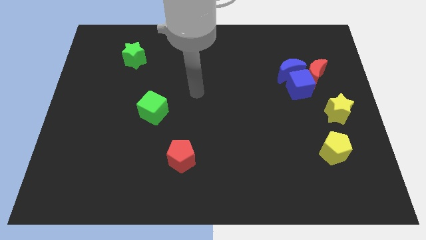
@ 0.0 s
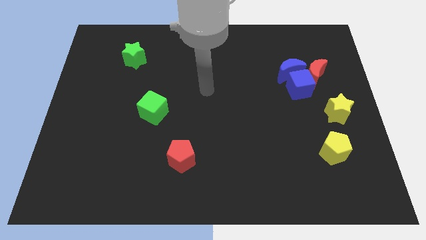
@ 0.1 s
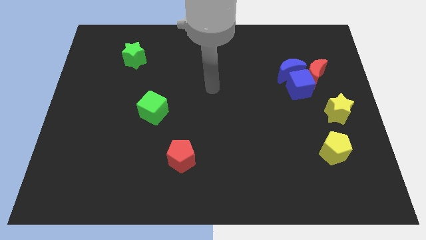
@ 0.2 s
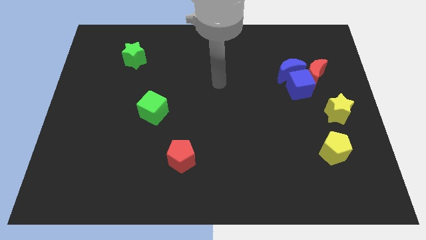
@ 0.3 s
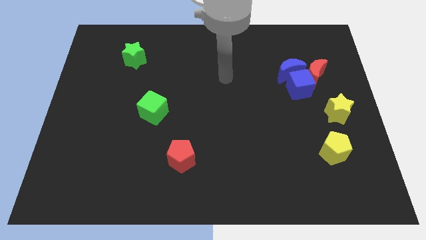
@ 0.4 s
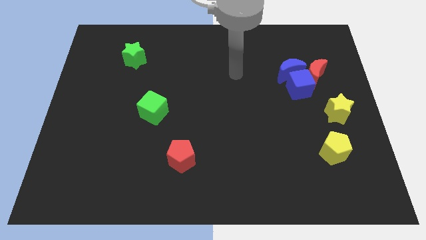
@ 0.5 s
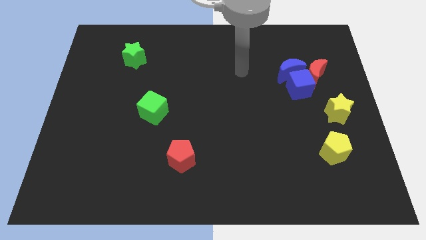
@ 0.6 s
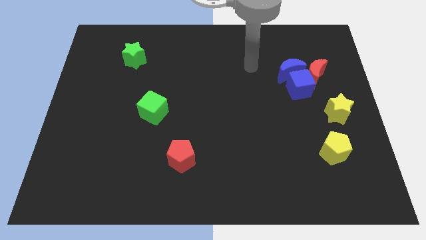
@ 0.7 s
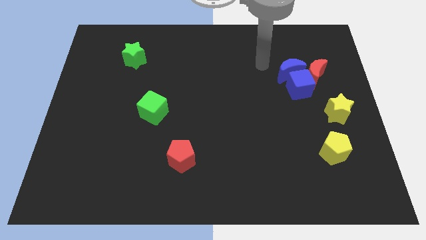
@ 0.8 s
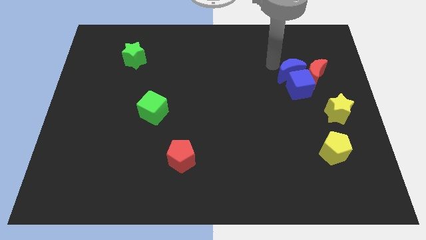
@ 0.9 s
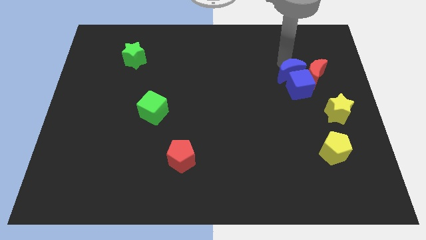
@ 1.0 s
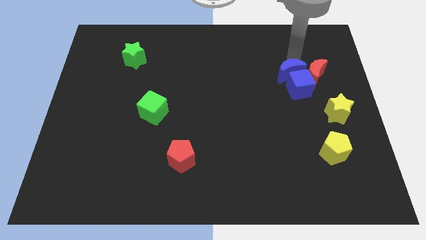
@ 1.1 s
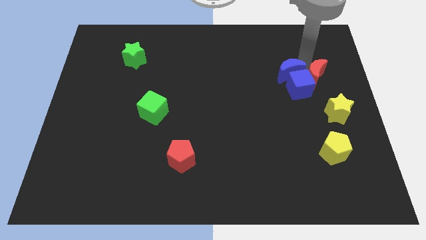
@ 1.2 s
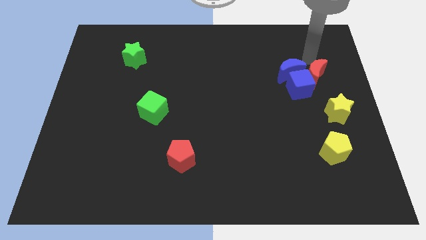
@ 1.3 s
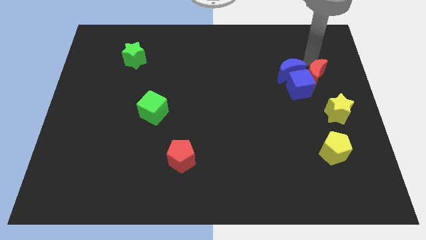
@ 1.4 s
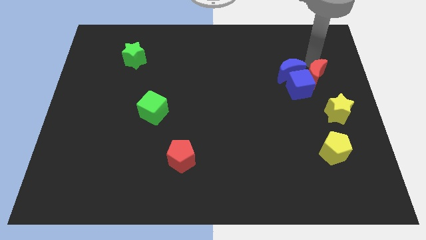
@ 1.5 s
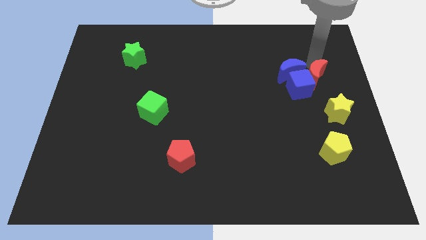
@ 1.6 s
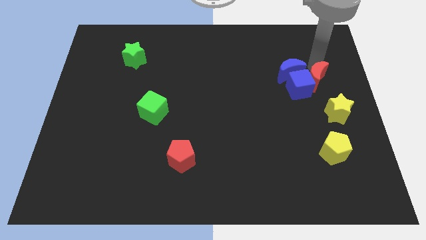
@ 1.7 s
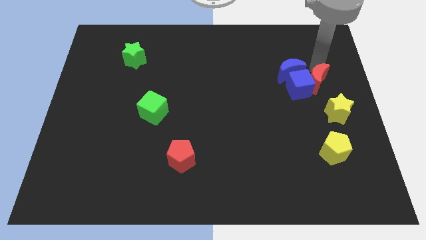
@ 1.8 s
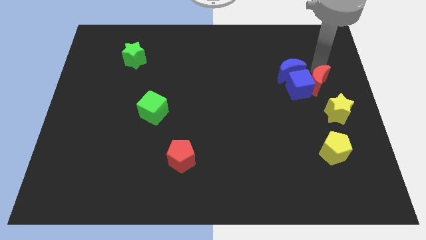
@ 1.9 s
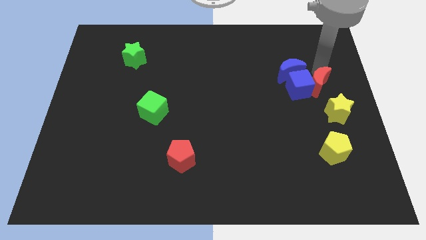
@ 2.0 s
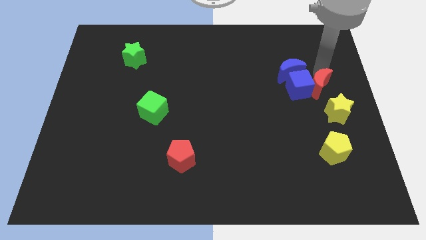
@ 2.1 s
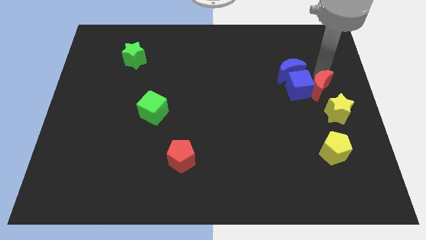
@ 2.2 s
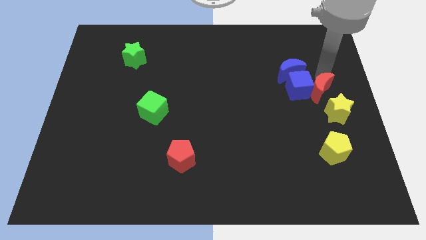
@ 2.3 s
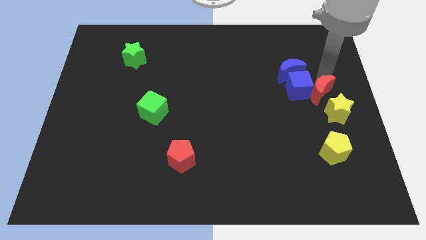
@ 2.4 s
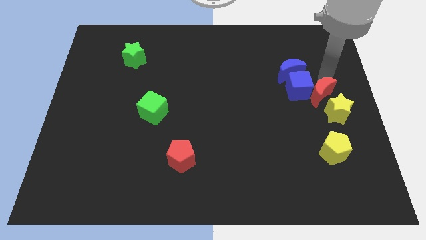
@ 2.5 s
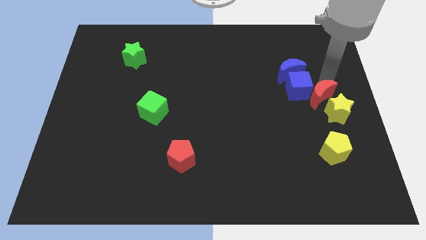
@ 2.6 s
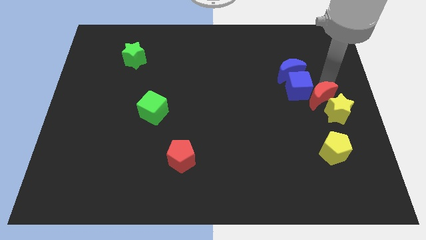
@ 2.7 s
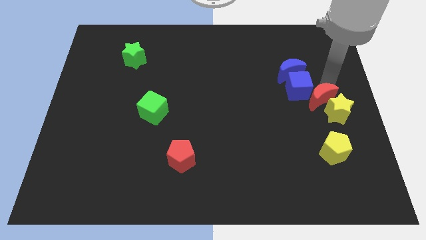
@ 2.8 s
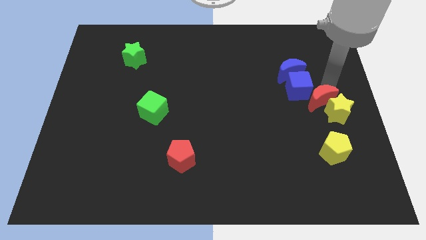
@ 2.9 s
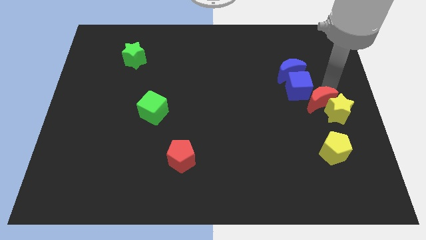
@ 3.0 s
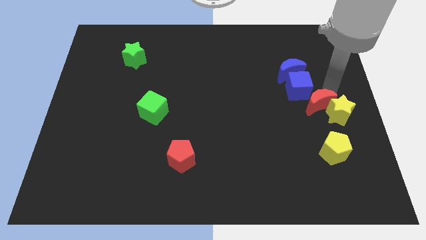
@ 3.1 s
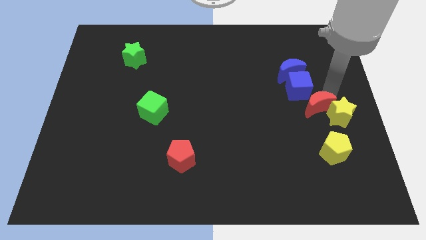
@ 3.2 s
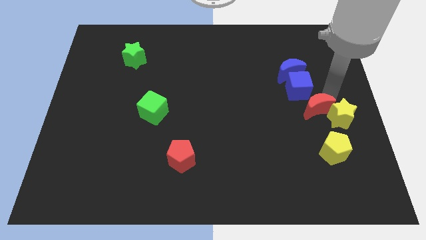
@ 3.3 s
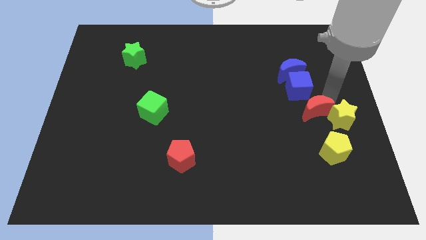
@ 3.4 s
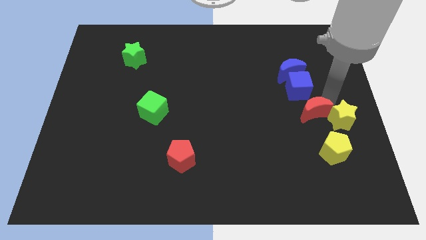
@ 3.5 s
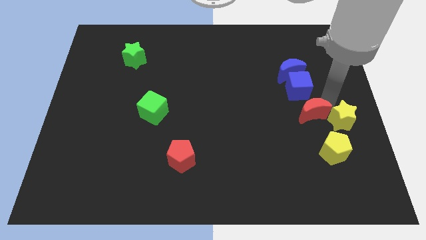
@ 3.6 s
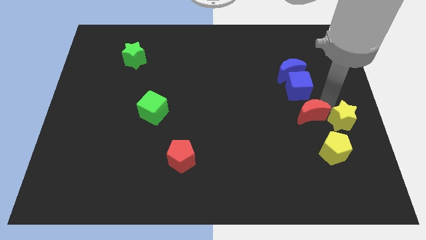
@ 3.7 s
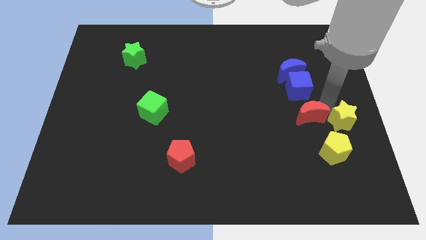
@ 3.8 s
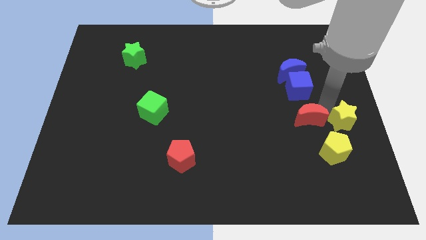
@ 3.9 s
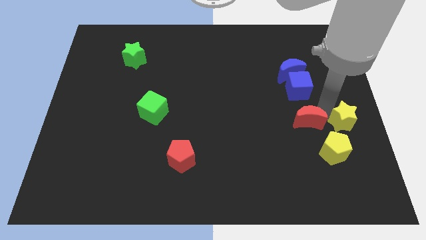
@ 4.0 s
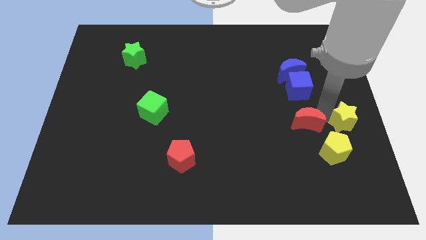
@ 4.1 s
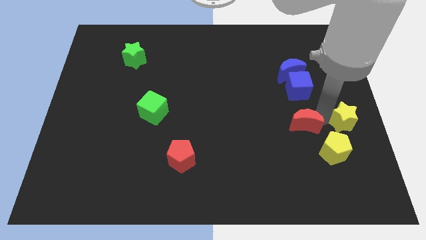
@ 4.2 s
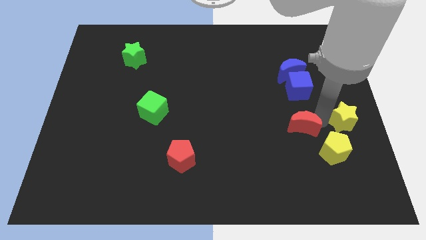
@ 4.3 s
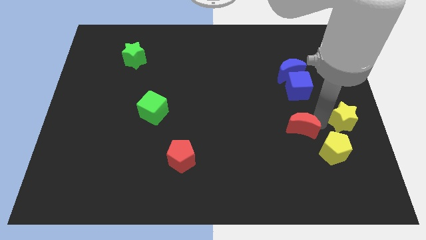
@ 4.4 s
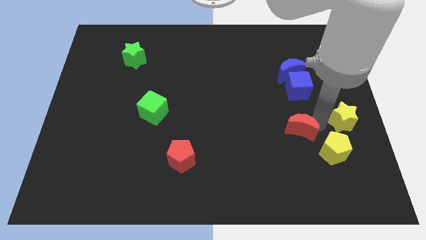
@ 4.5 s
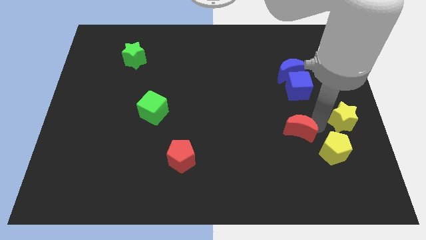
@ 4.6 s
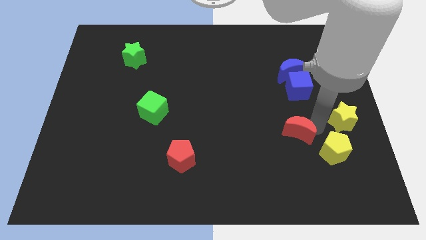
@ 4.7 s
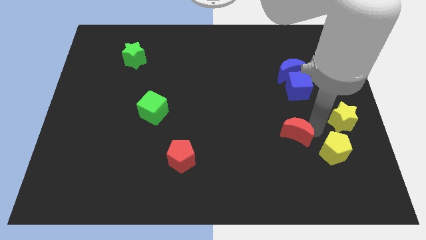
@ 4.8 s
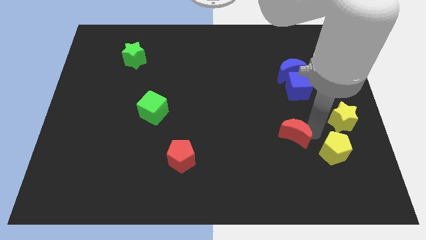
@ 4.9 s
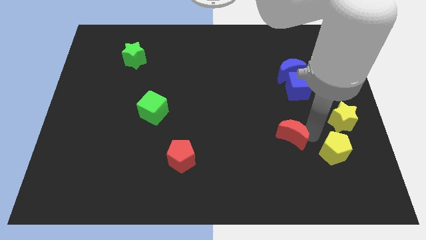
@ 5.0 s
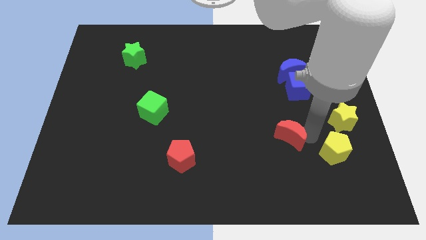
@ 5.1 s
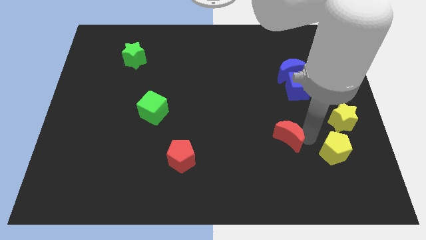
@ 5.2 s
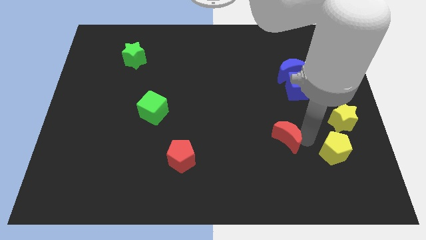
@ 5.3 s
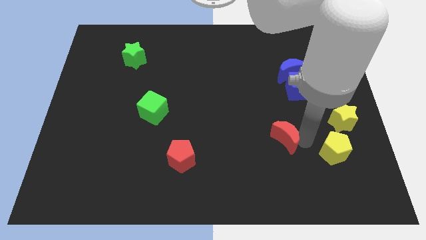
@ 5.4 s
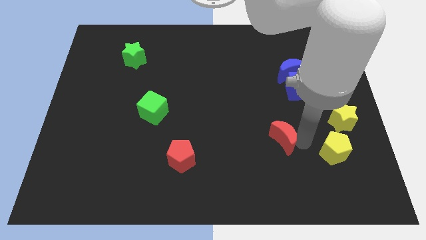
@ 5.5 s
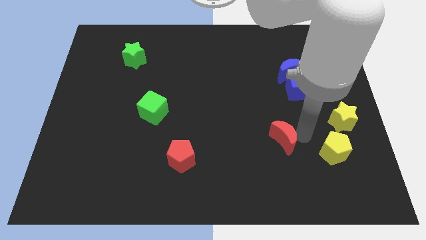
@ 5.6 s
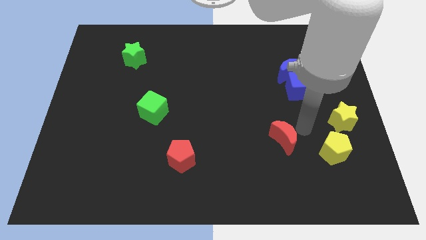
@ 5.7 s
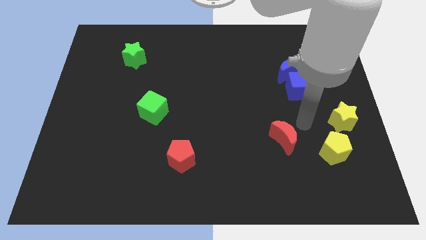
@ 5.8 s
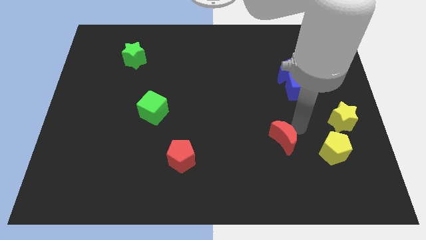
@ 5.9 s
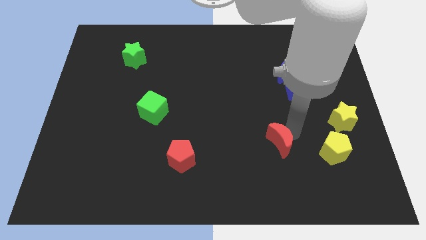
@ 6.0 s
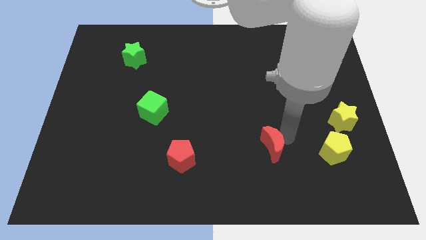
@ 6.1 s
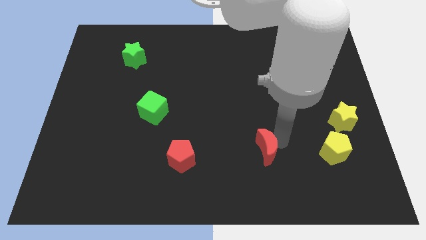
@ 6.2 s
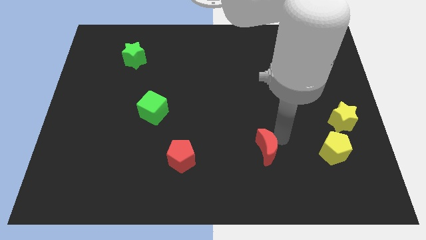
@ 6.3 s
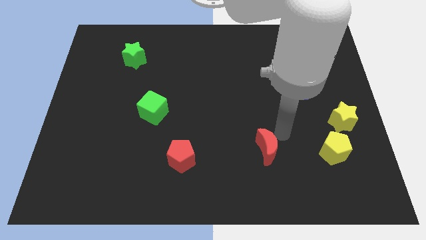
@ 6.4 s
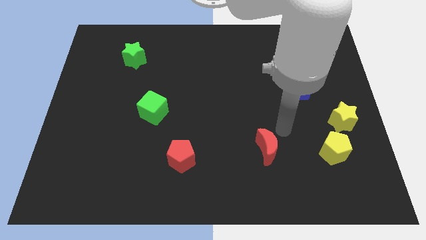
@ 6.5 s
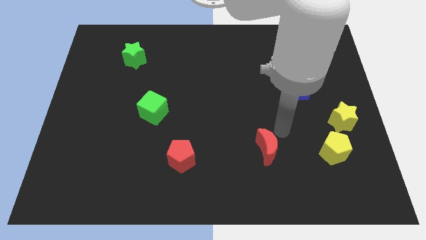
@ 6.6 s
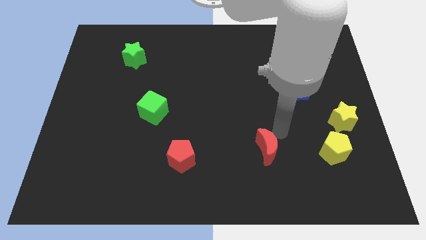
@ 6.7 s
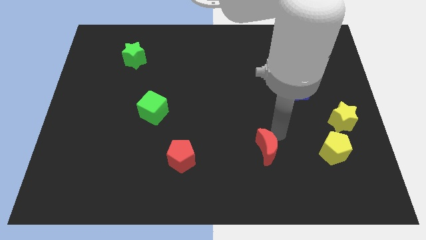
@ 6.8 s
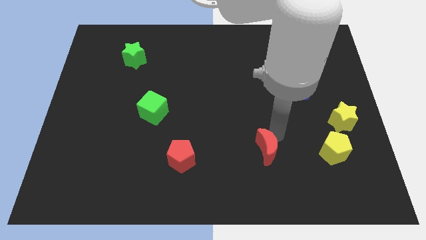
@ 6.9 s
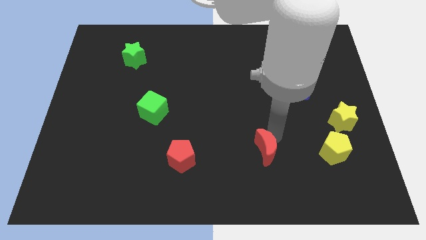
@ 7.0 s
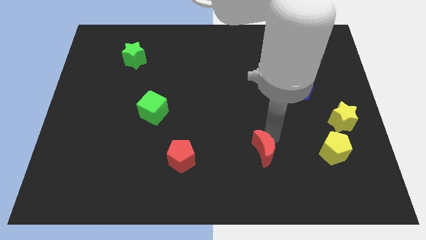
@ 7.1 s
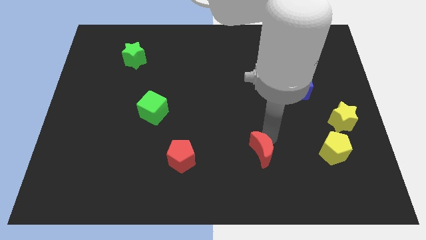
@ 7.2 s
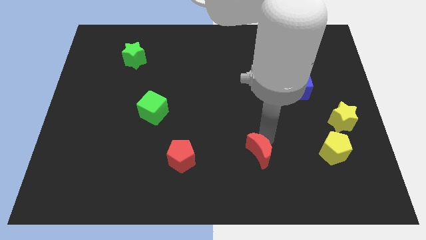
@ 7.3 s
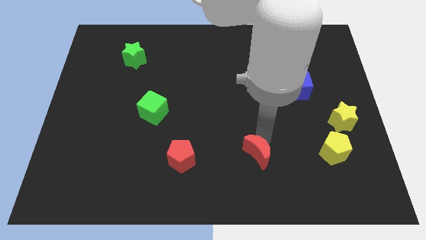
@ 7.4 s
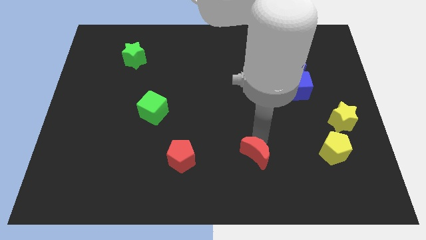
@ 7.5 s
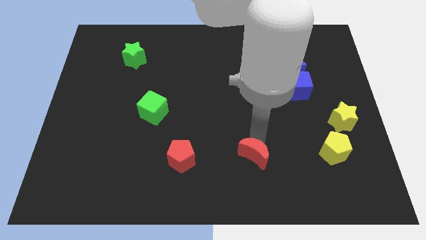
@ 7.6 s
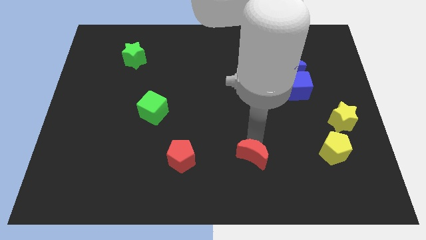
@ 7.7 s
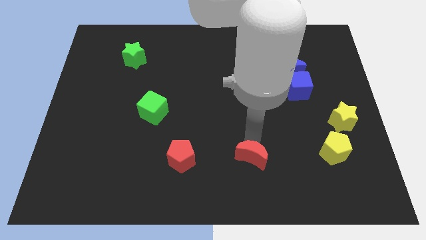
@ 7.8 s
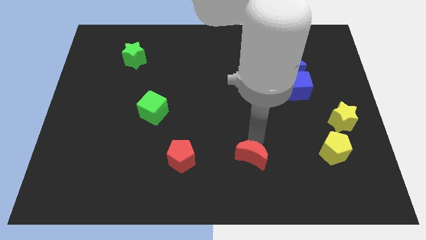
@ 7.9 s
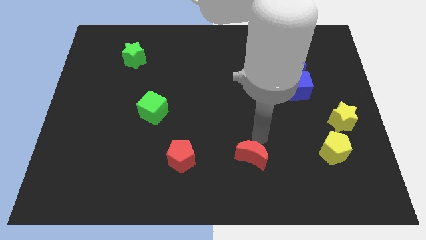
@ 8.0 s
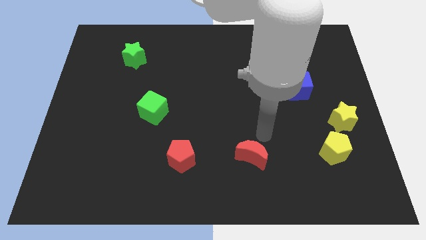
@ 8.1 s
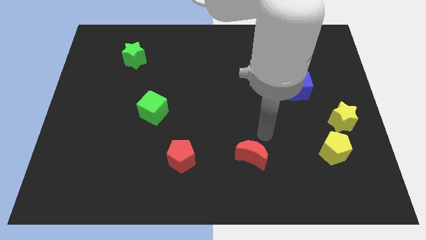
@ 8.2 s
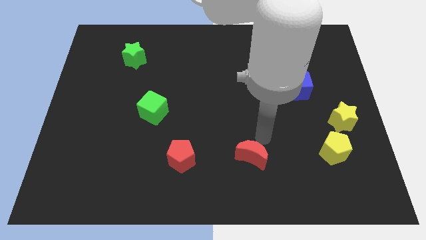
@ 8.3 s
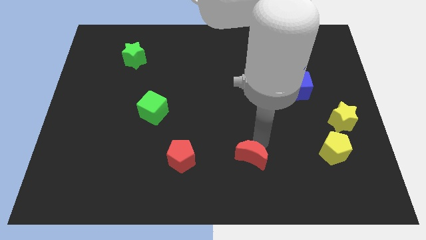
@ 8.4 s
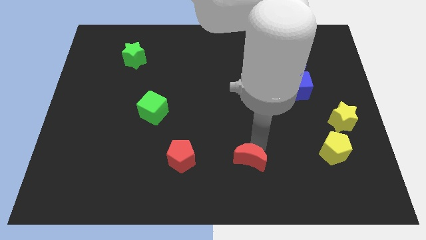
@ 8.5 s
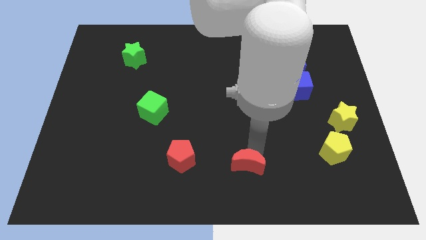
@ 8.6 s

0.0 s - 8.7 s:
put the red moon to the bottom
